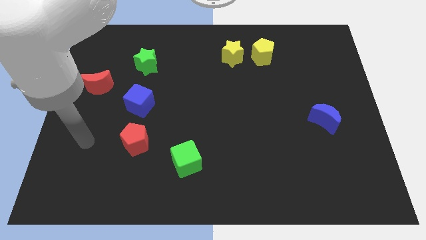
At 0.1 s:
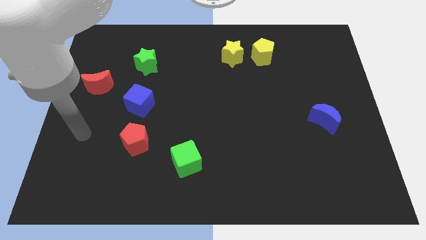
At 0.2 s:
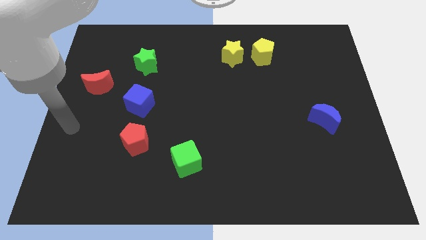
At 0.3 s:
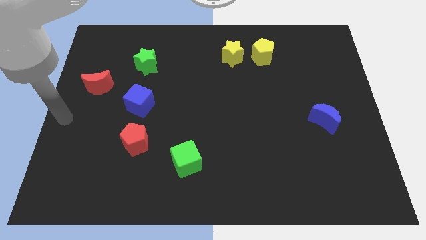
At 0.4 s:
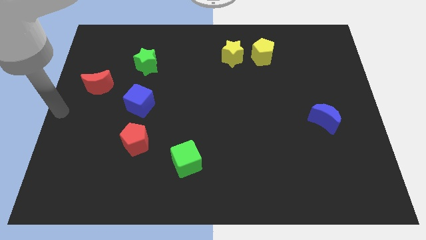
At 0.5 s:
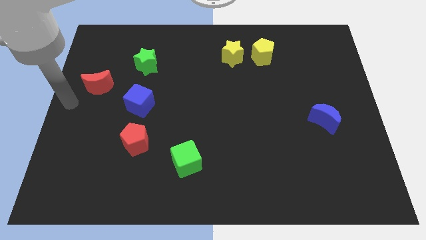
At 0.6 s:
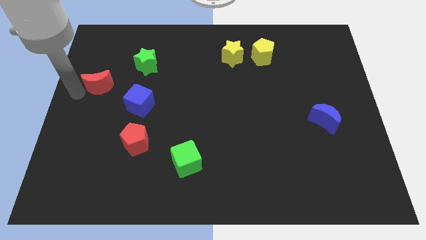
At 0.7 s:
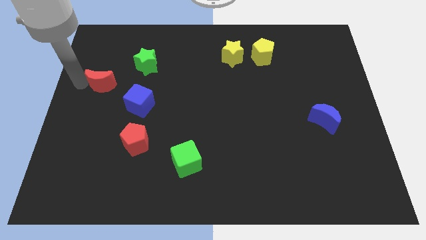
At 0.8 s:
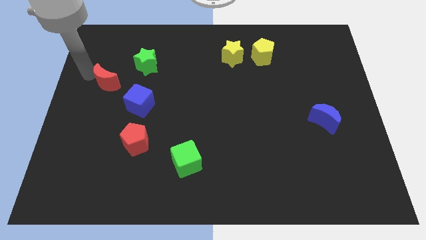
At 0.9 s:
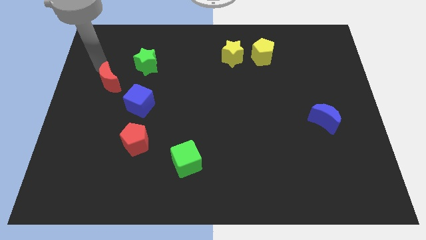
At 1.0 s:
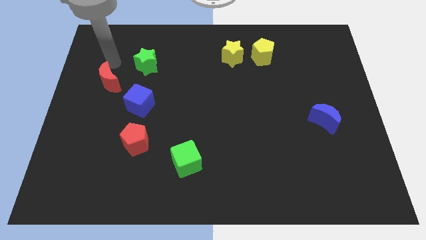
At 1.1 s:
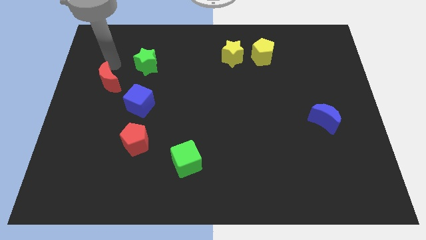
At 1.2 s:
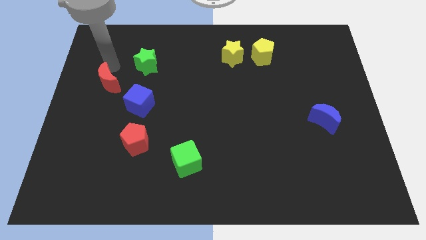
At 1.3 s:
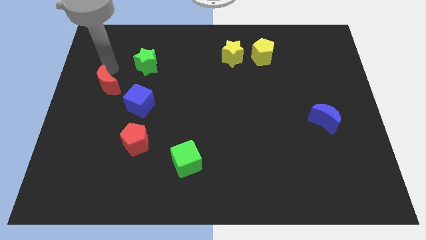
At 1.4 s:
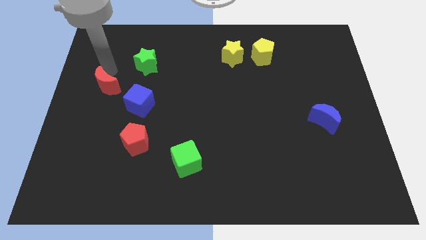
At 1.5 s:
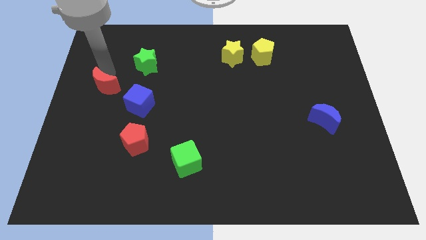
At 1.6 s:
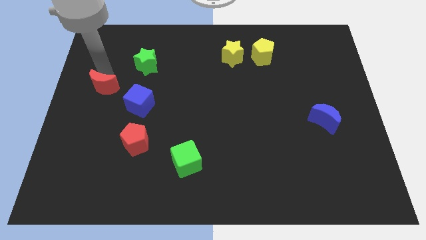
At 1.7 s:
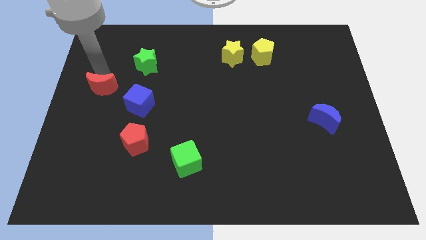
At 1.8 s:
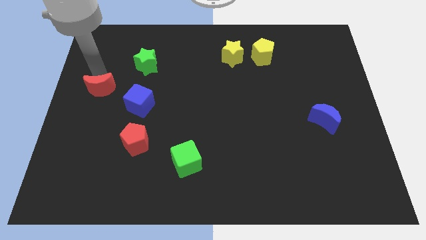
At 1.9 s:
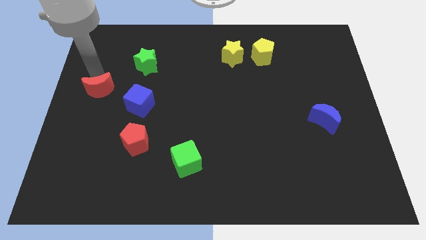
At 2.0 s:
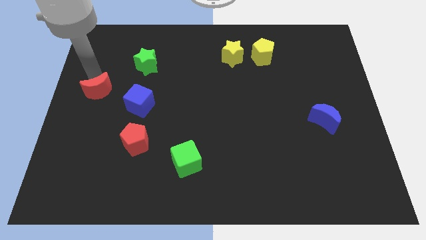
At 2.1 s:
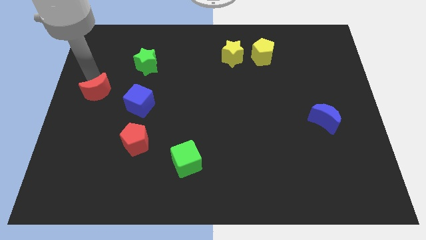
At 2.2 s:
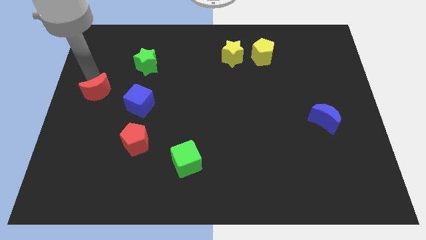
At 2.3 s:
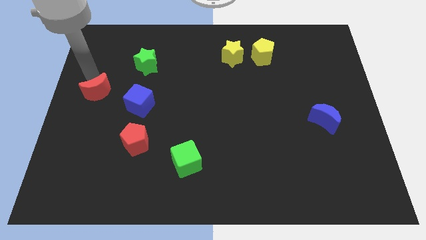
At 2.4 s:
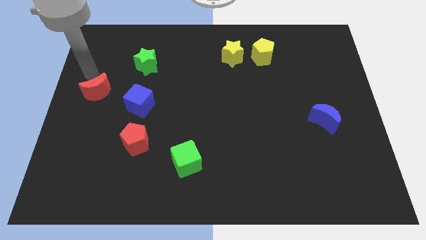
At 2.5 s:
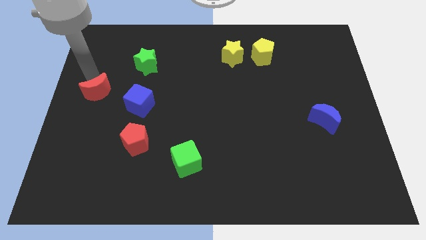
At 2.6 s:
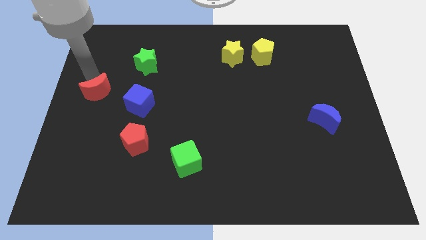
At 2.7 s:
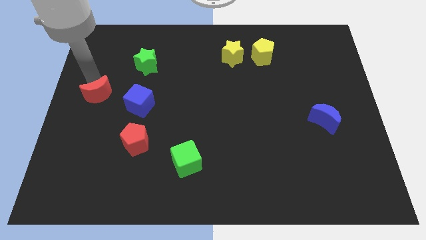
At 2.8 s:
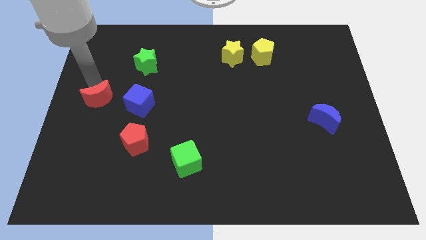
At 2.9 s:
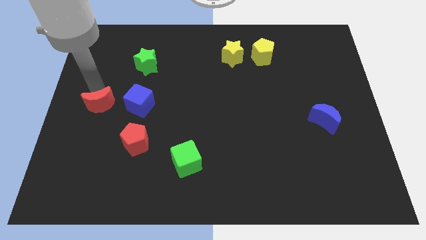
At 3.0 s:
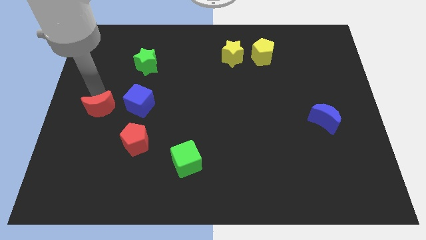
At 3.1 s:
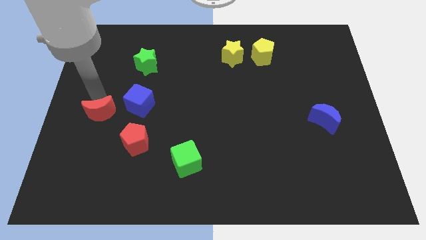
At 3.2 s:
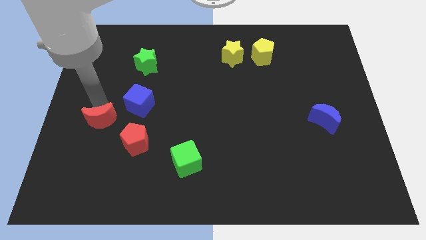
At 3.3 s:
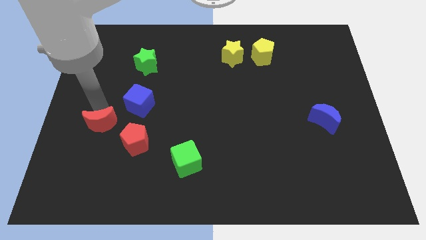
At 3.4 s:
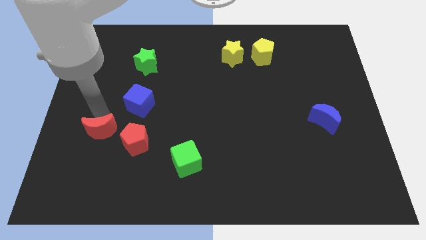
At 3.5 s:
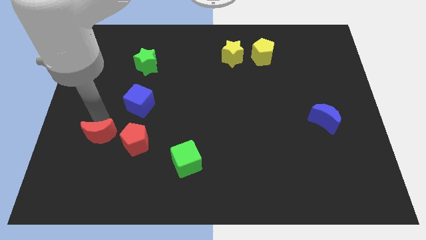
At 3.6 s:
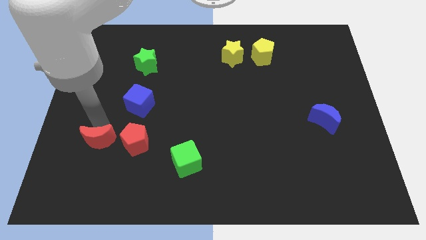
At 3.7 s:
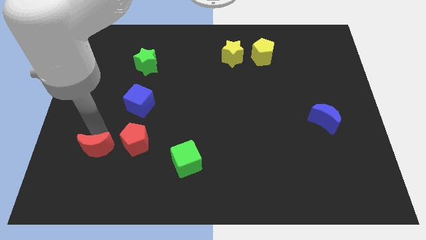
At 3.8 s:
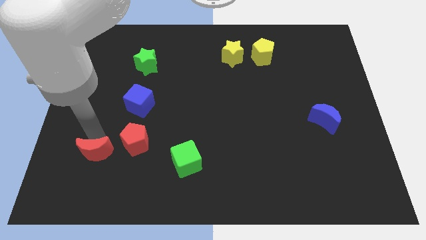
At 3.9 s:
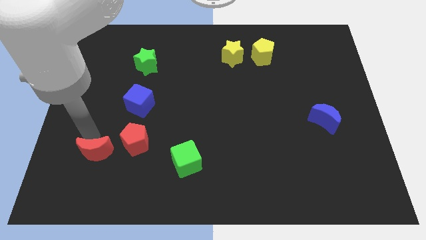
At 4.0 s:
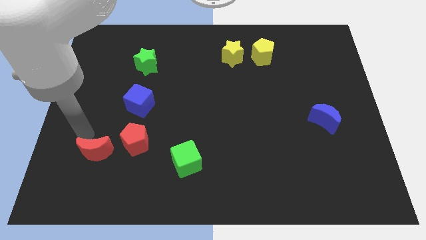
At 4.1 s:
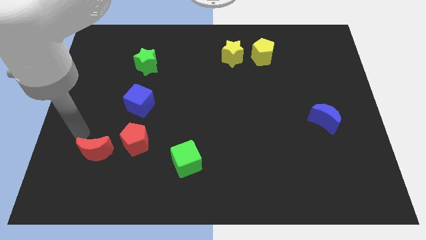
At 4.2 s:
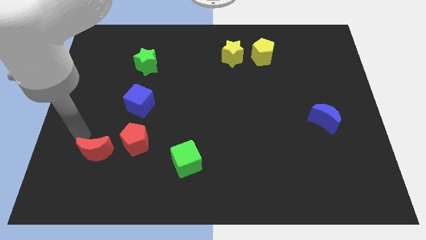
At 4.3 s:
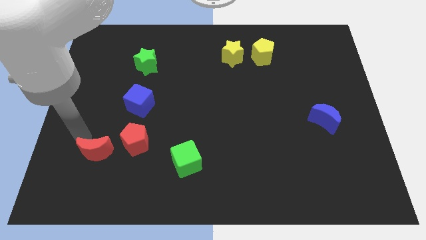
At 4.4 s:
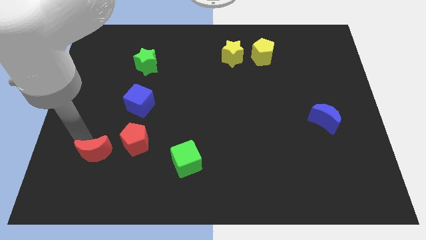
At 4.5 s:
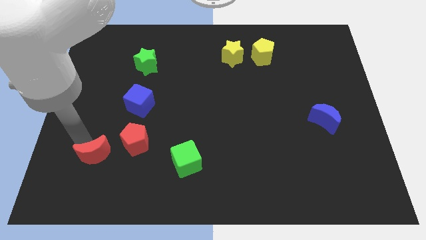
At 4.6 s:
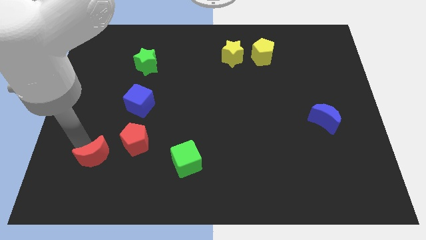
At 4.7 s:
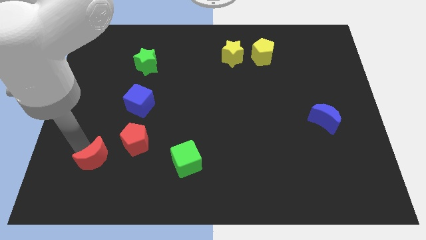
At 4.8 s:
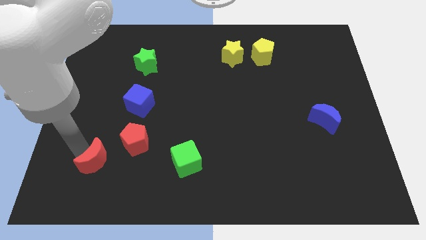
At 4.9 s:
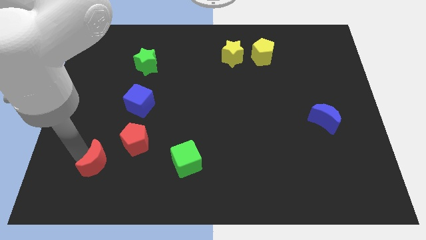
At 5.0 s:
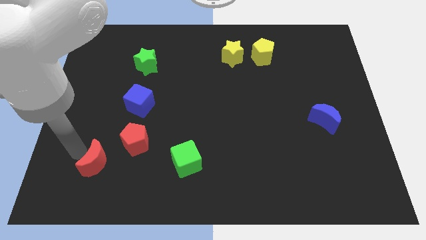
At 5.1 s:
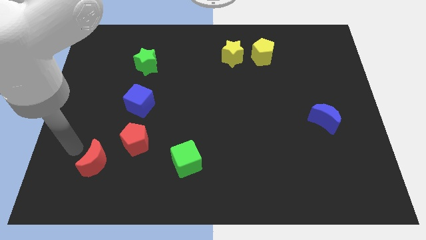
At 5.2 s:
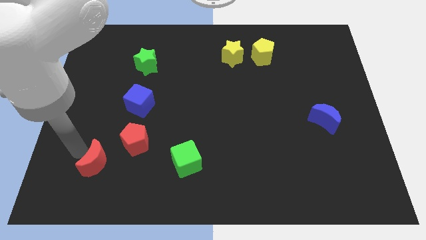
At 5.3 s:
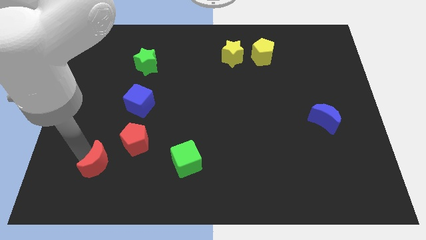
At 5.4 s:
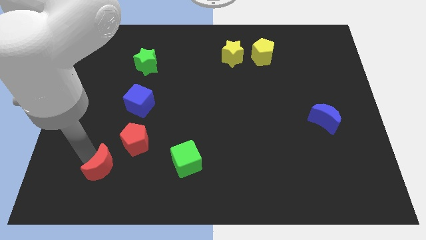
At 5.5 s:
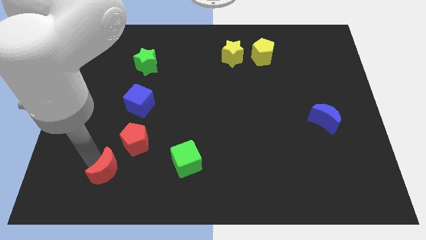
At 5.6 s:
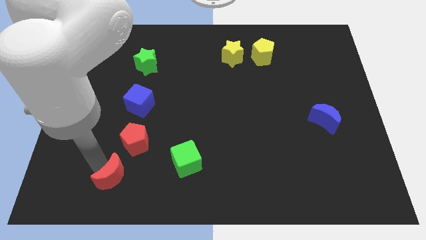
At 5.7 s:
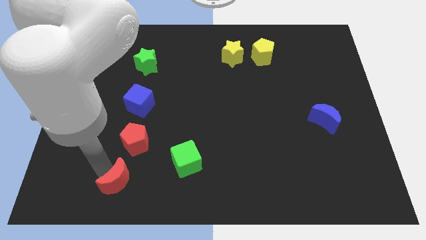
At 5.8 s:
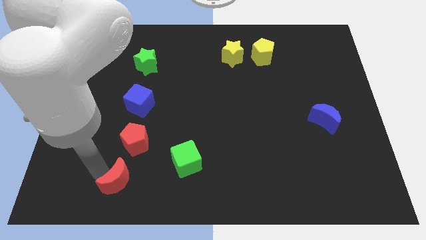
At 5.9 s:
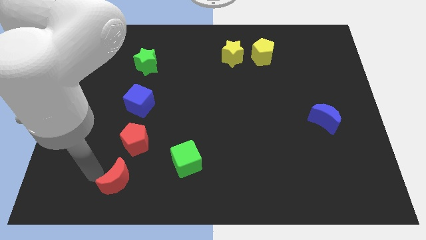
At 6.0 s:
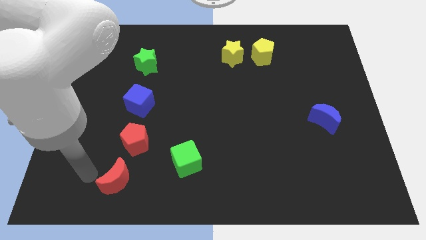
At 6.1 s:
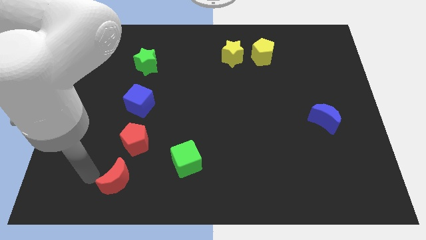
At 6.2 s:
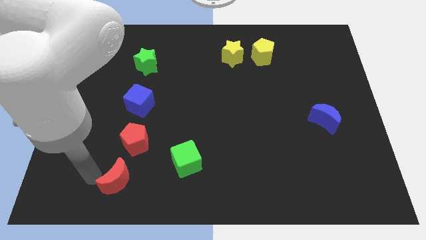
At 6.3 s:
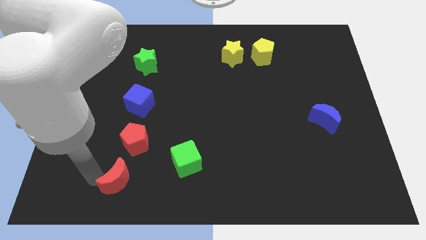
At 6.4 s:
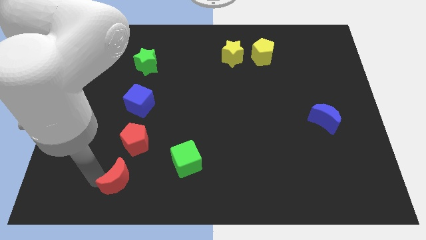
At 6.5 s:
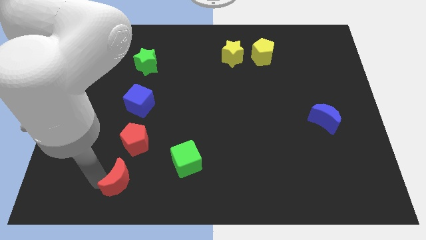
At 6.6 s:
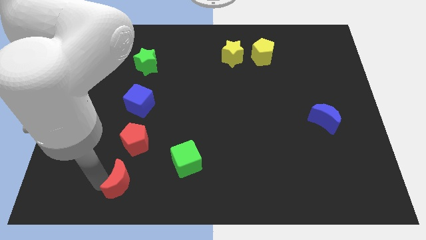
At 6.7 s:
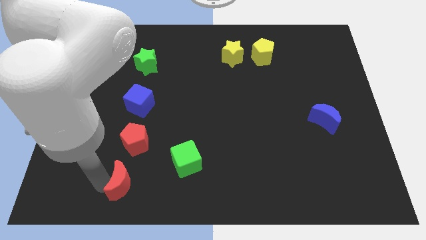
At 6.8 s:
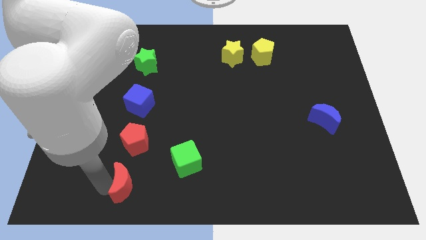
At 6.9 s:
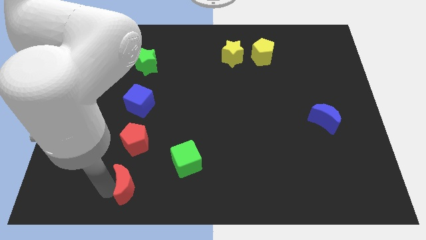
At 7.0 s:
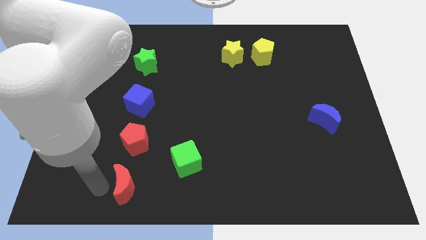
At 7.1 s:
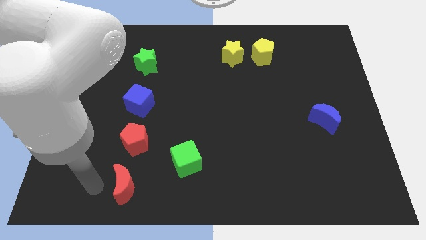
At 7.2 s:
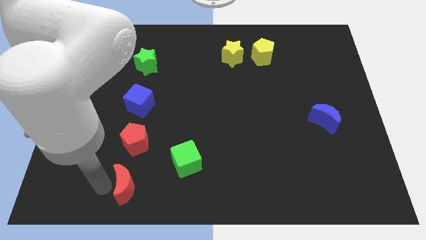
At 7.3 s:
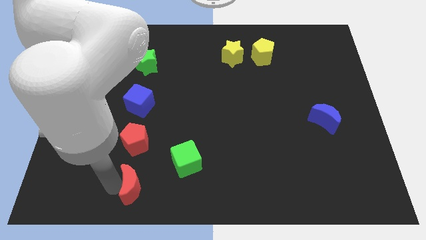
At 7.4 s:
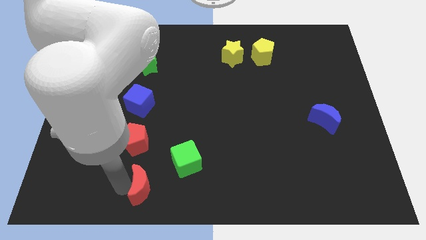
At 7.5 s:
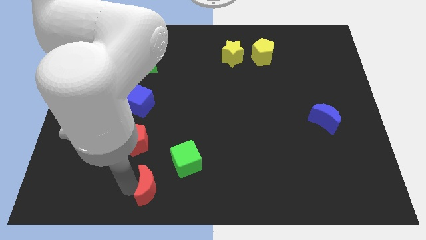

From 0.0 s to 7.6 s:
move the red moon to the bottom
